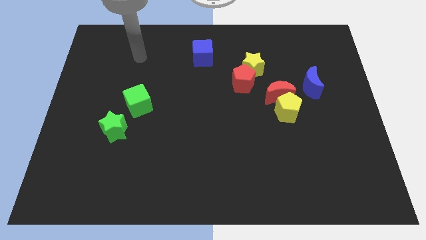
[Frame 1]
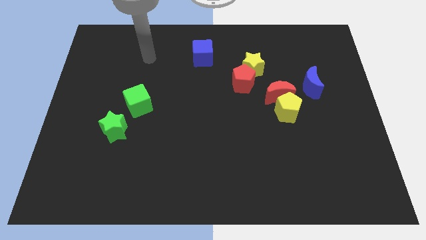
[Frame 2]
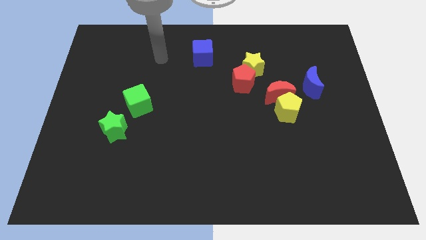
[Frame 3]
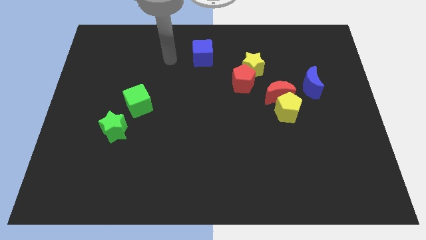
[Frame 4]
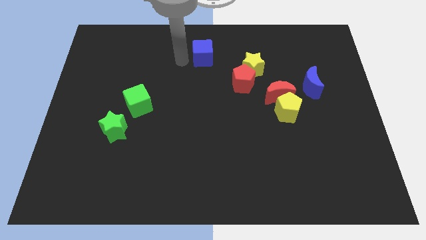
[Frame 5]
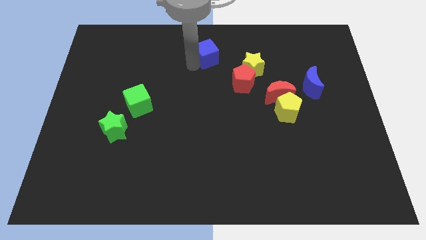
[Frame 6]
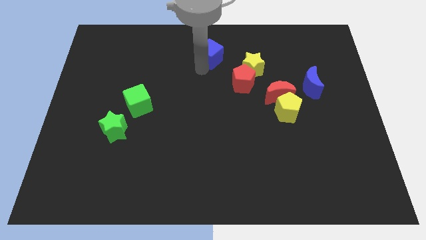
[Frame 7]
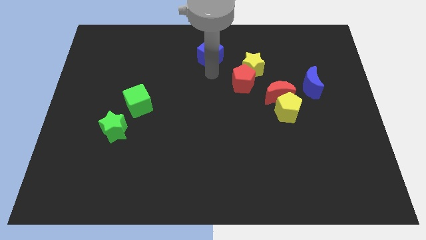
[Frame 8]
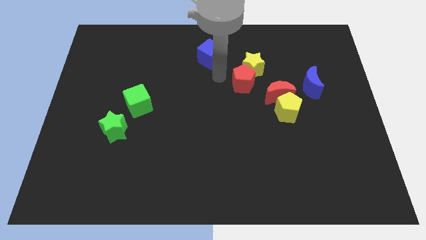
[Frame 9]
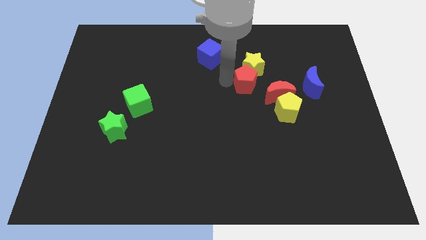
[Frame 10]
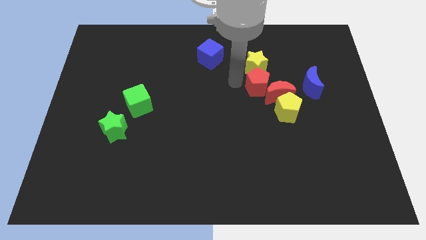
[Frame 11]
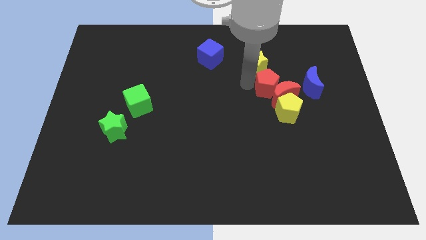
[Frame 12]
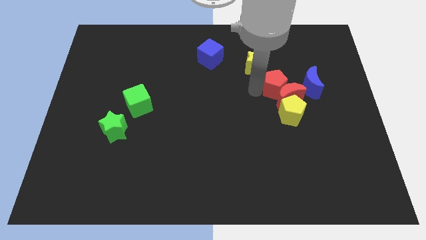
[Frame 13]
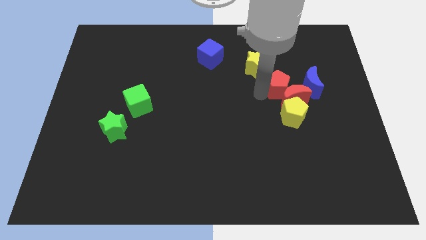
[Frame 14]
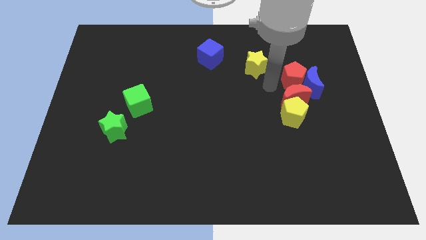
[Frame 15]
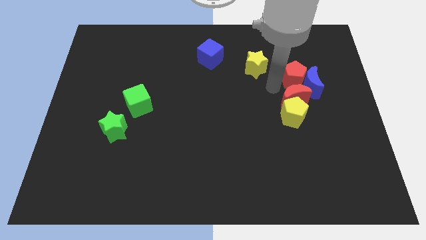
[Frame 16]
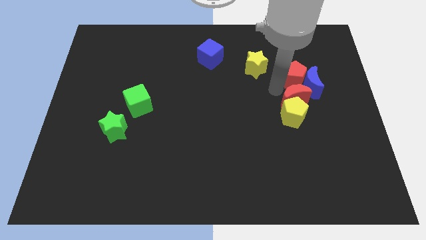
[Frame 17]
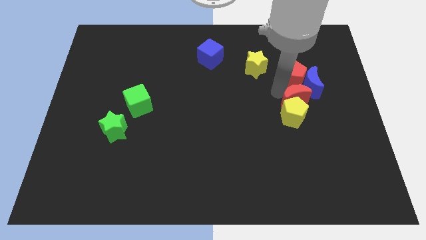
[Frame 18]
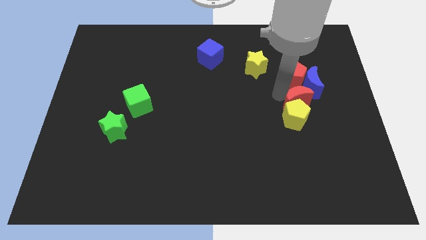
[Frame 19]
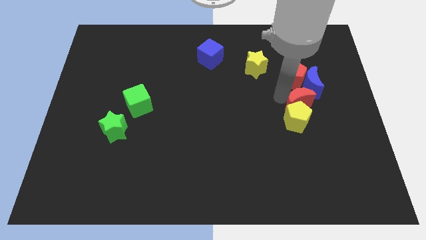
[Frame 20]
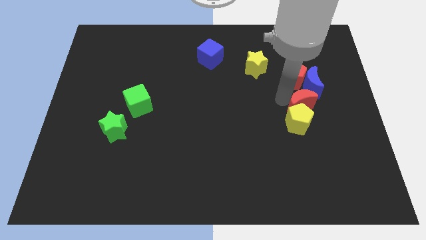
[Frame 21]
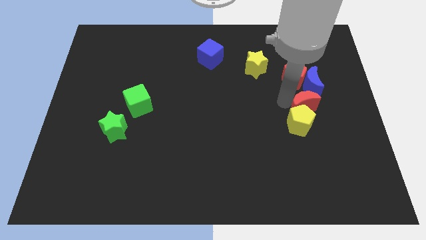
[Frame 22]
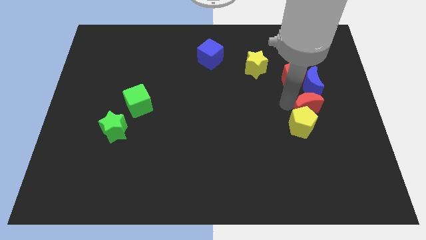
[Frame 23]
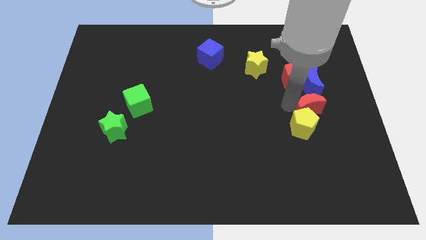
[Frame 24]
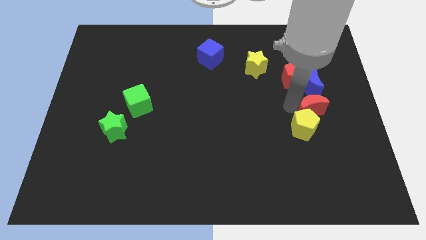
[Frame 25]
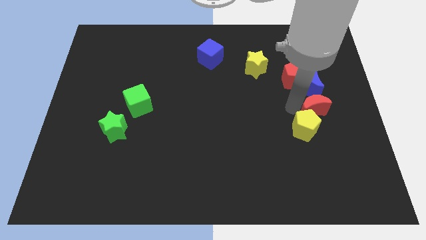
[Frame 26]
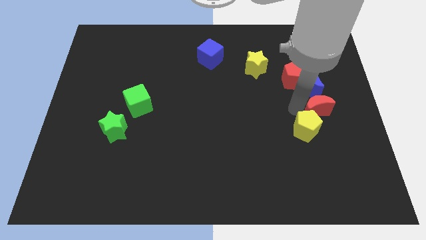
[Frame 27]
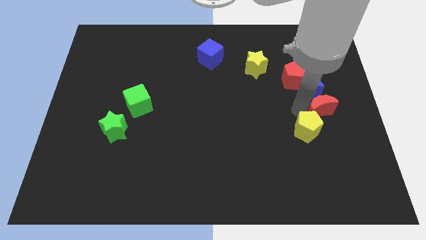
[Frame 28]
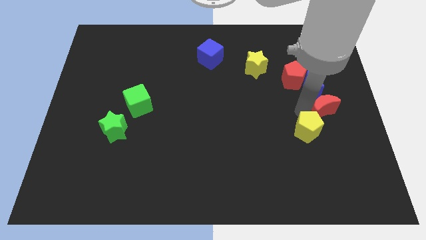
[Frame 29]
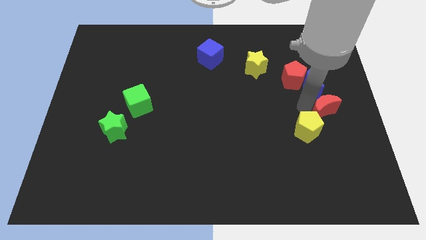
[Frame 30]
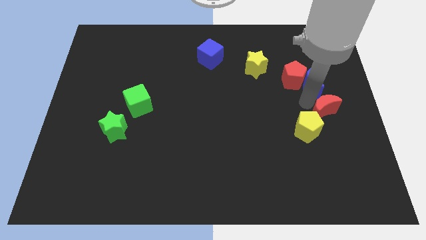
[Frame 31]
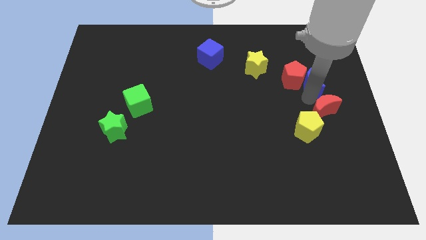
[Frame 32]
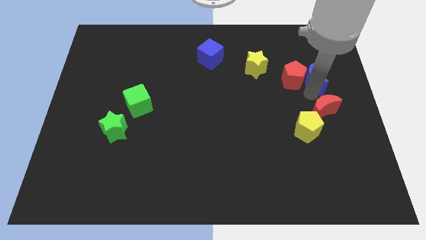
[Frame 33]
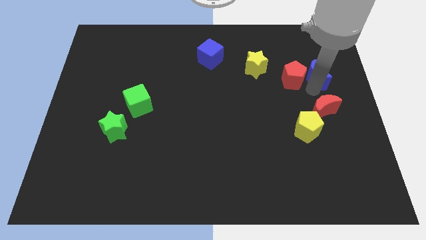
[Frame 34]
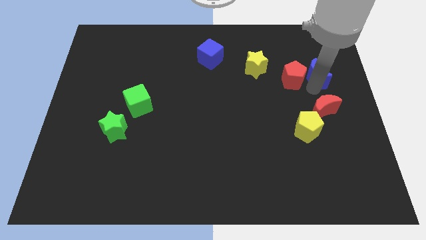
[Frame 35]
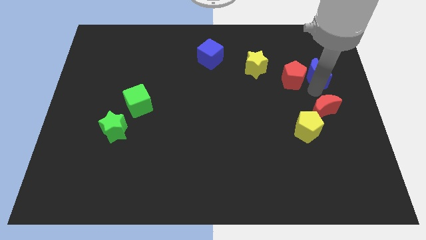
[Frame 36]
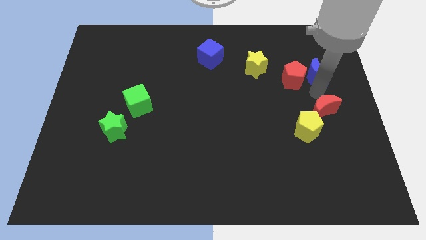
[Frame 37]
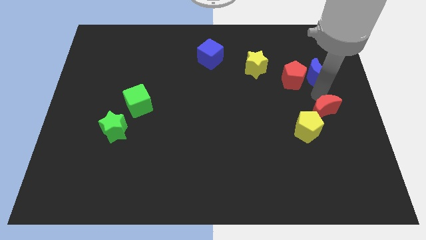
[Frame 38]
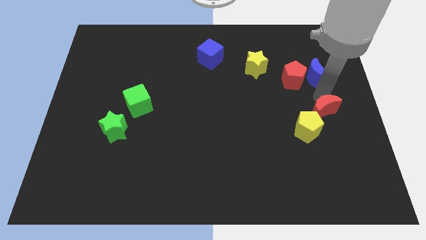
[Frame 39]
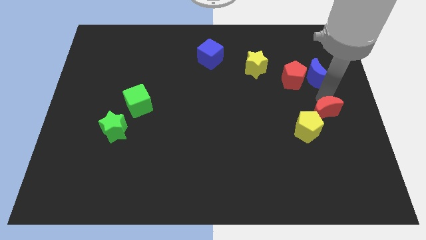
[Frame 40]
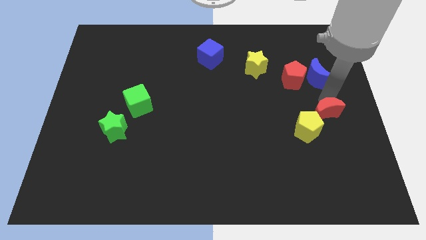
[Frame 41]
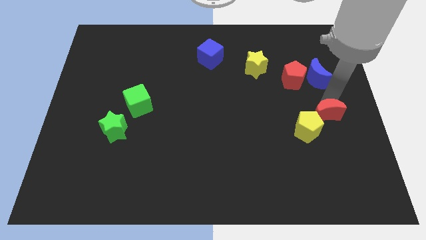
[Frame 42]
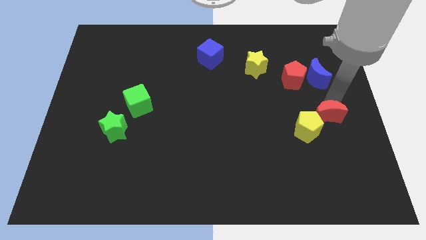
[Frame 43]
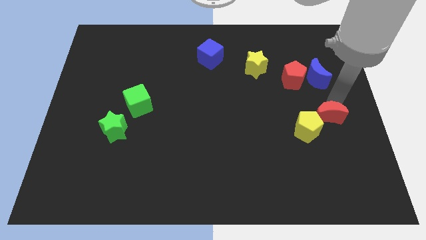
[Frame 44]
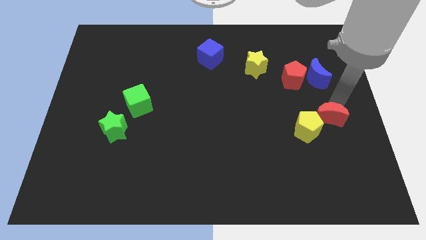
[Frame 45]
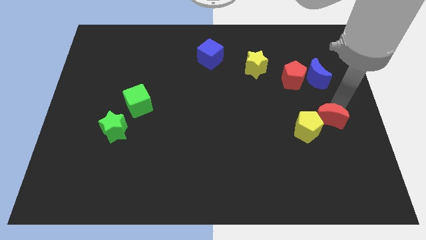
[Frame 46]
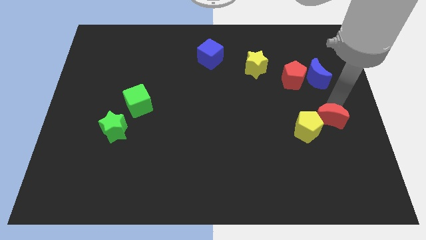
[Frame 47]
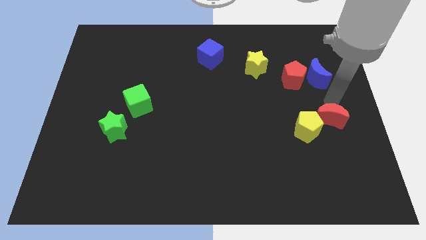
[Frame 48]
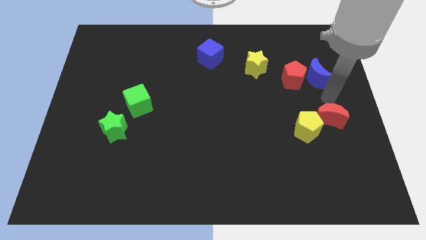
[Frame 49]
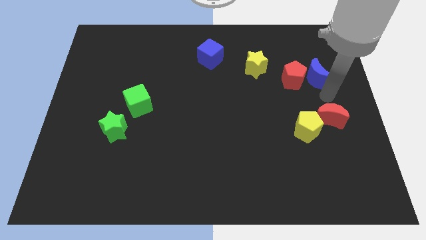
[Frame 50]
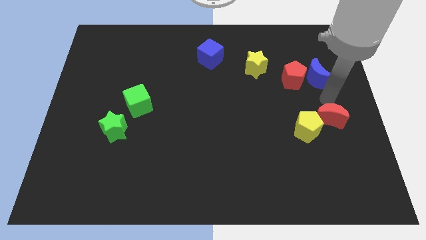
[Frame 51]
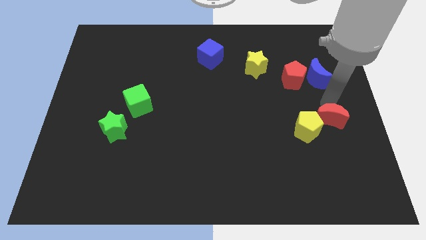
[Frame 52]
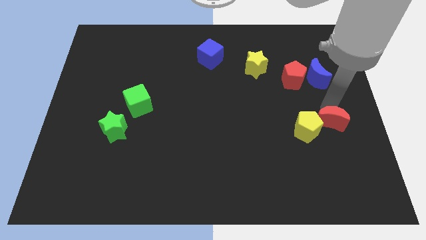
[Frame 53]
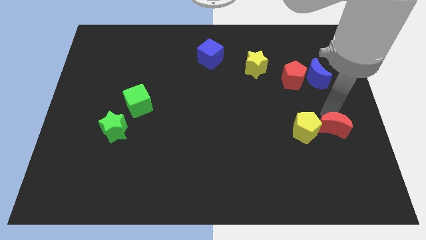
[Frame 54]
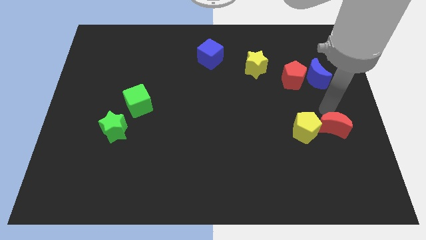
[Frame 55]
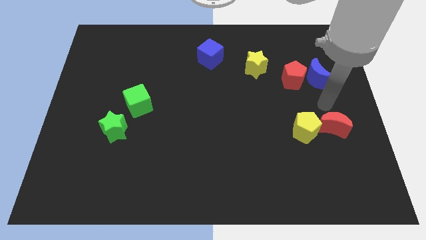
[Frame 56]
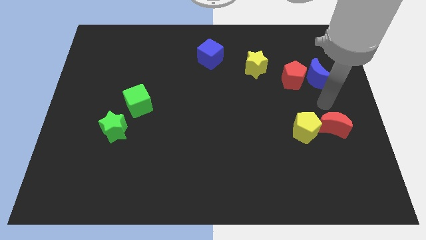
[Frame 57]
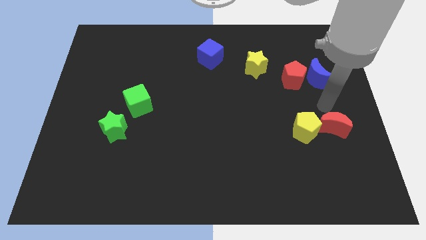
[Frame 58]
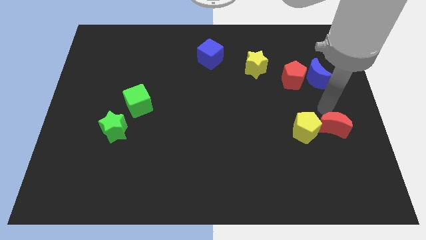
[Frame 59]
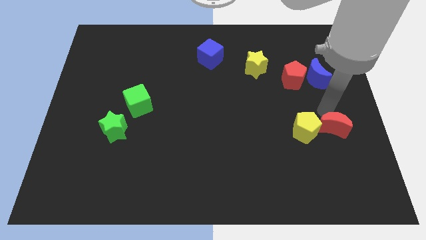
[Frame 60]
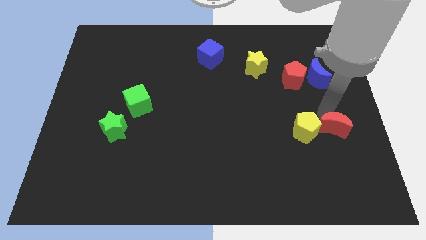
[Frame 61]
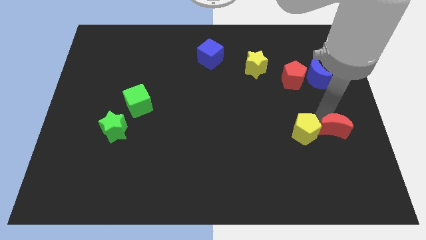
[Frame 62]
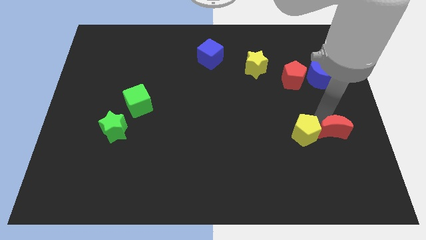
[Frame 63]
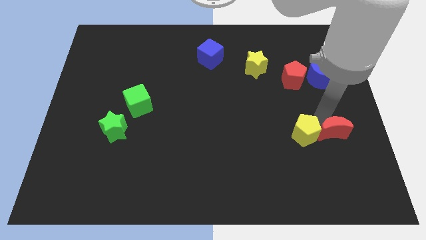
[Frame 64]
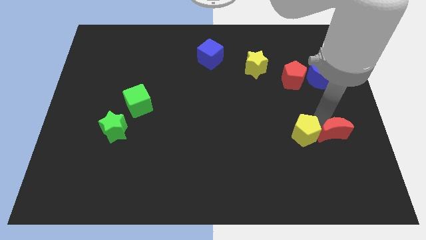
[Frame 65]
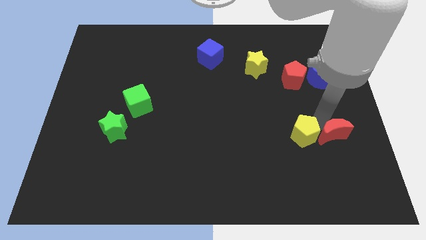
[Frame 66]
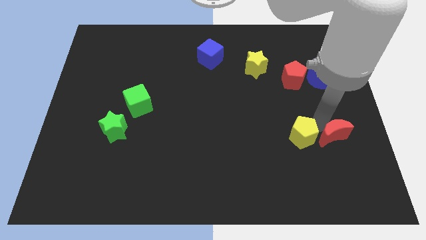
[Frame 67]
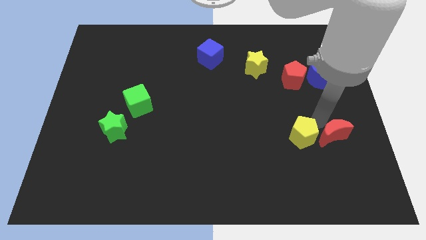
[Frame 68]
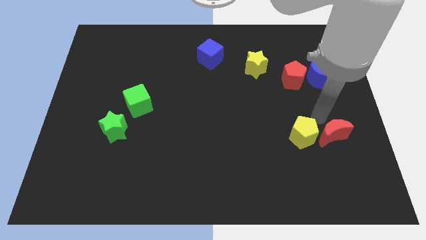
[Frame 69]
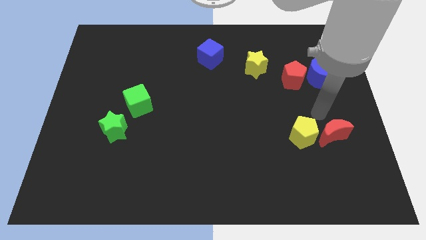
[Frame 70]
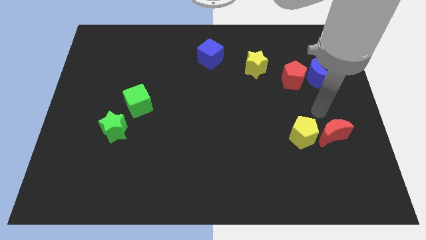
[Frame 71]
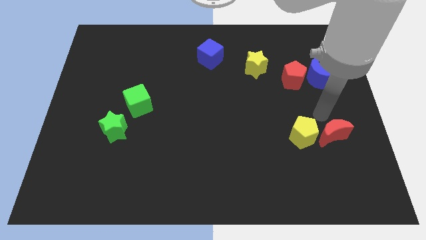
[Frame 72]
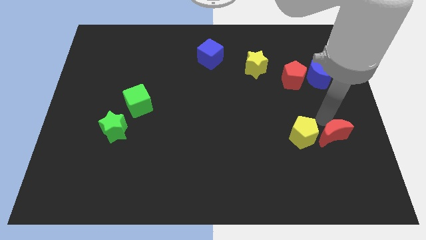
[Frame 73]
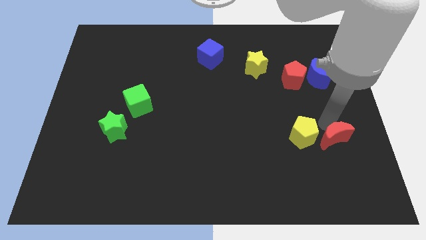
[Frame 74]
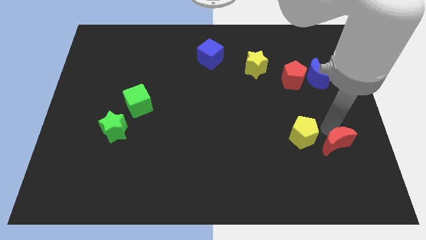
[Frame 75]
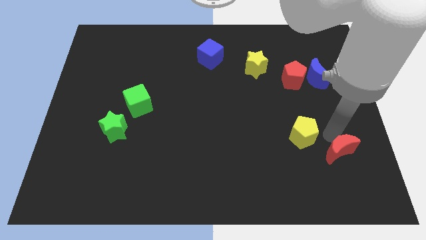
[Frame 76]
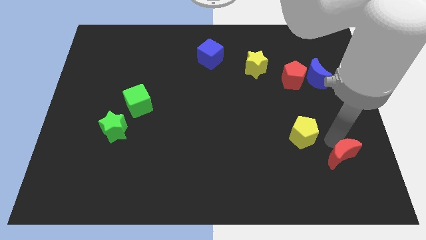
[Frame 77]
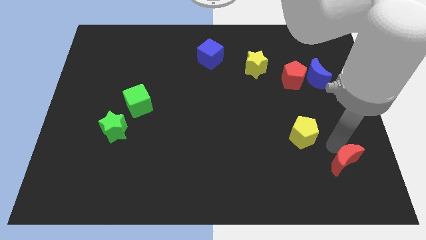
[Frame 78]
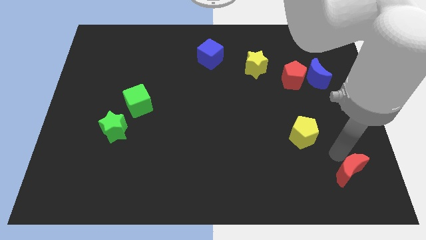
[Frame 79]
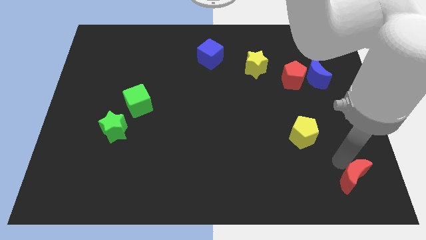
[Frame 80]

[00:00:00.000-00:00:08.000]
put the red moon to the bottom right corner
